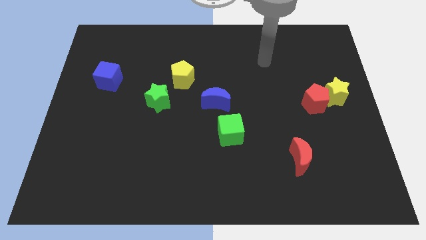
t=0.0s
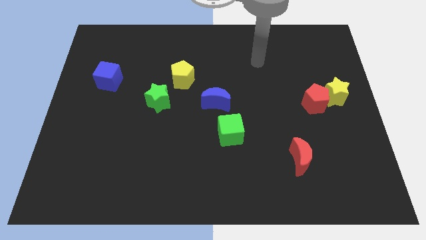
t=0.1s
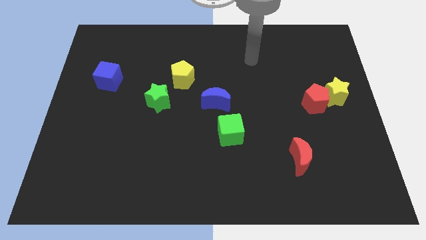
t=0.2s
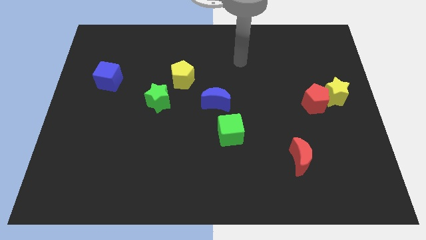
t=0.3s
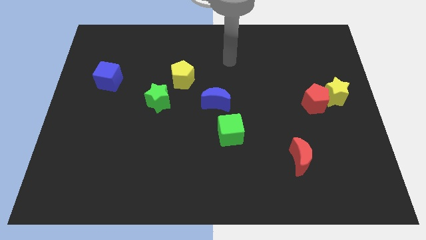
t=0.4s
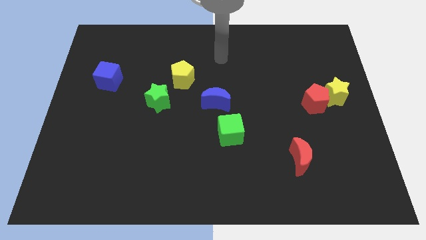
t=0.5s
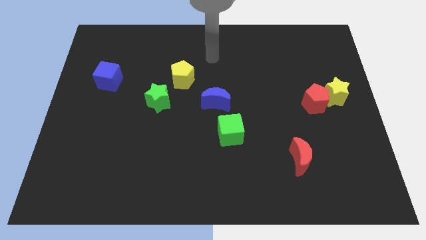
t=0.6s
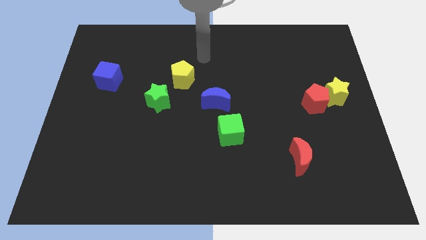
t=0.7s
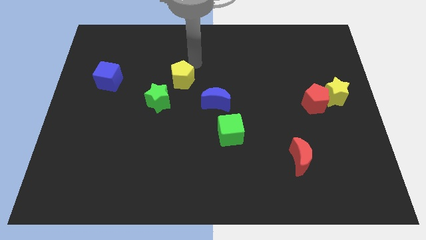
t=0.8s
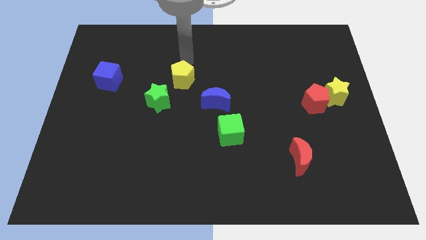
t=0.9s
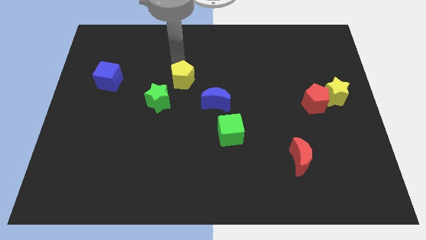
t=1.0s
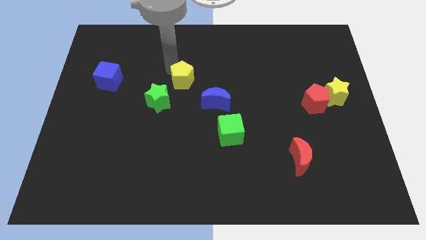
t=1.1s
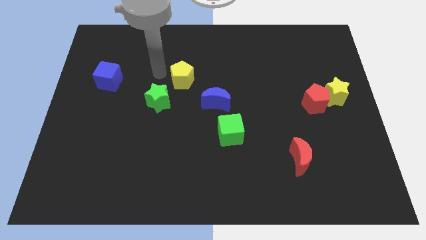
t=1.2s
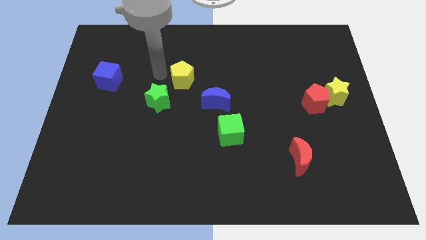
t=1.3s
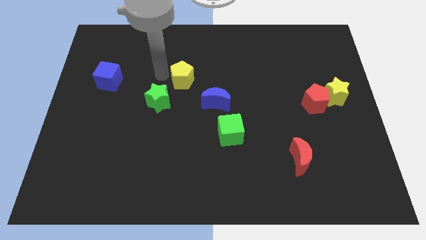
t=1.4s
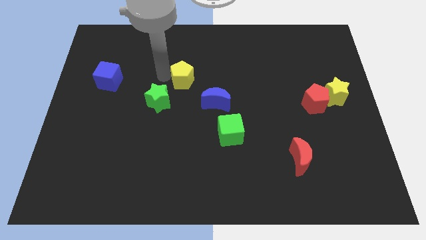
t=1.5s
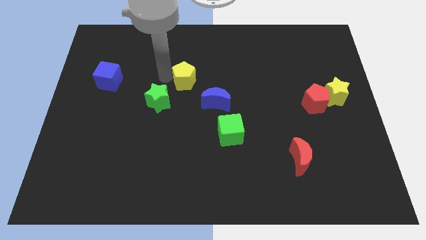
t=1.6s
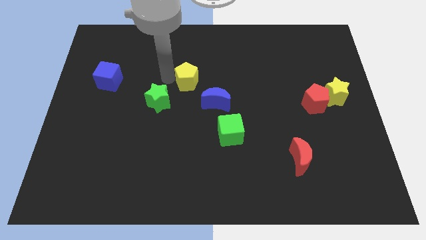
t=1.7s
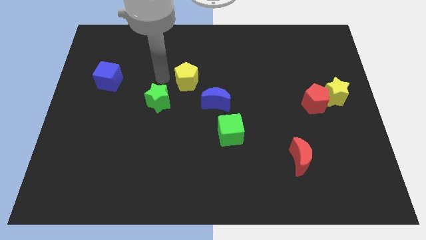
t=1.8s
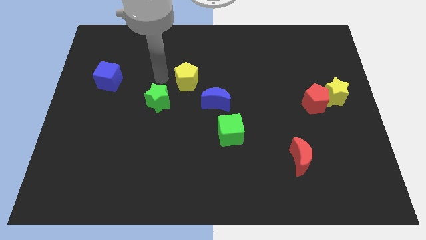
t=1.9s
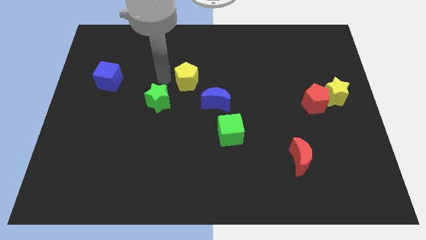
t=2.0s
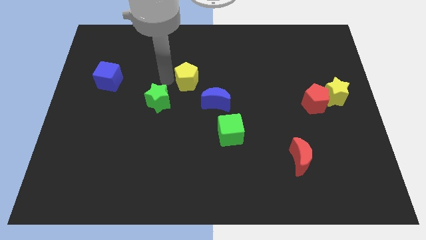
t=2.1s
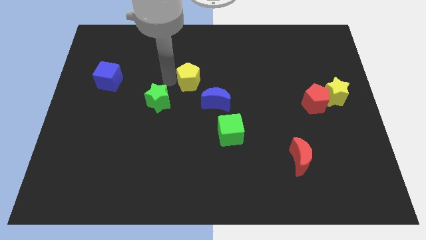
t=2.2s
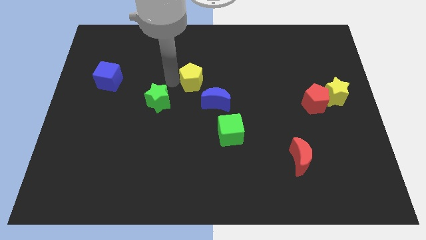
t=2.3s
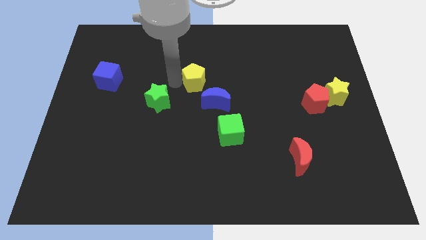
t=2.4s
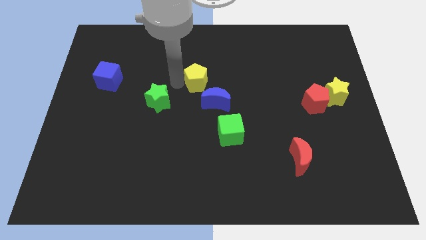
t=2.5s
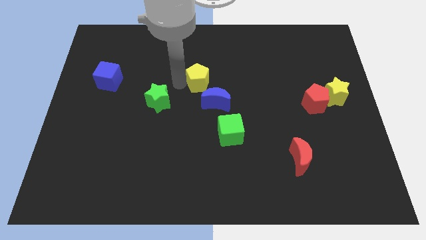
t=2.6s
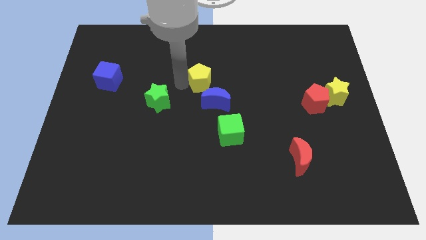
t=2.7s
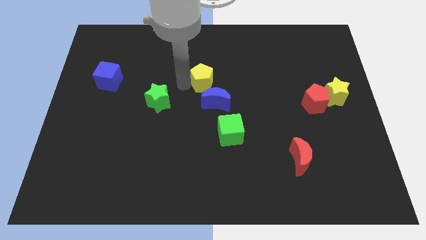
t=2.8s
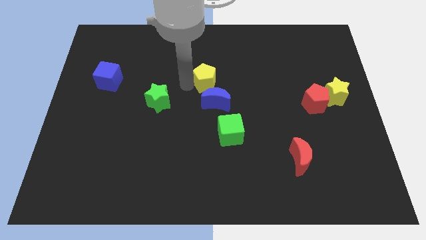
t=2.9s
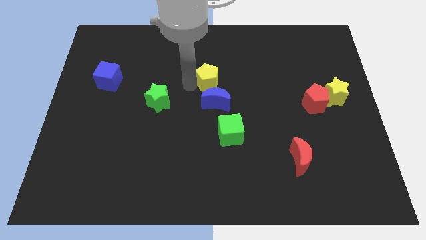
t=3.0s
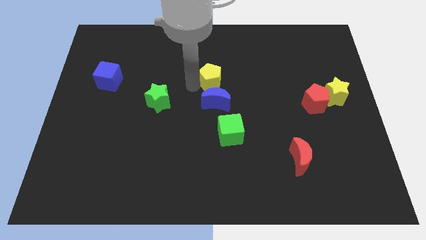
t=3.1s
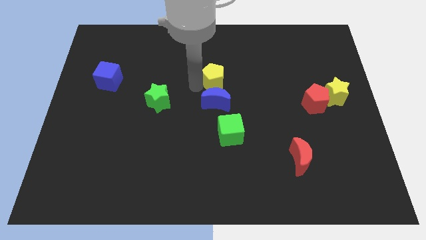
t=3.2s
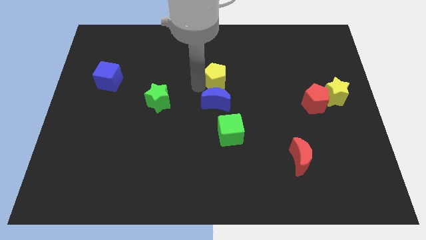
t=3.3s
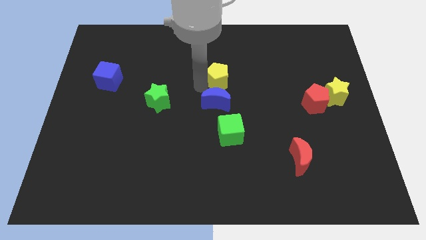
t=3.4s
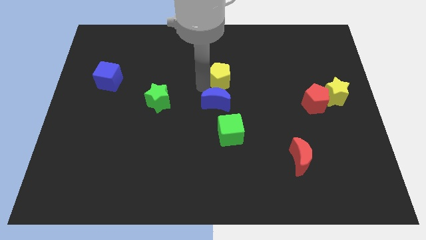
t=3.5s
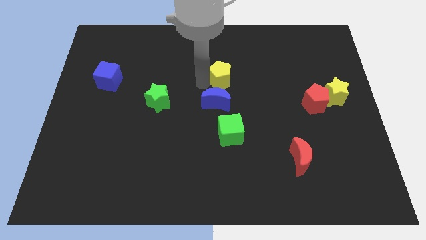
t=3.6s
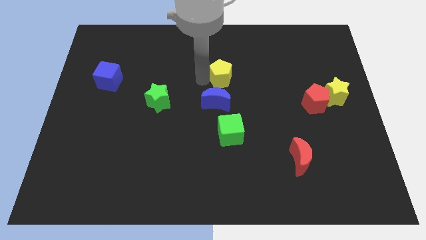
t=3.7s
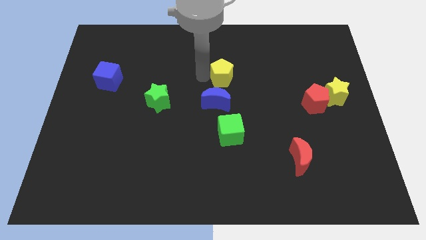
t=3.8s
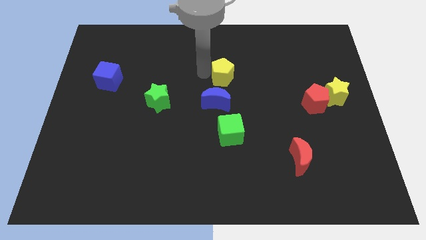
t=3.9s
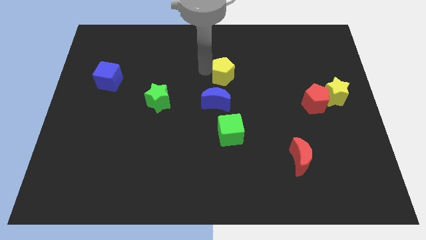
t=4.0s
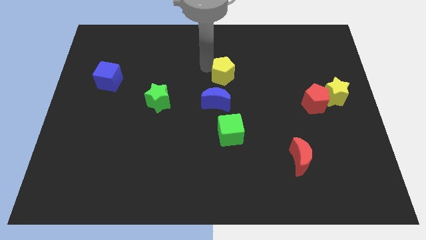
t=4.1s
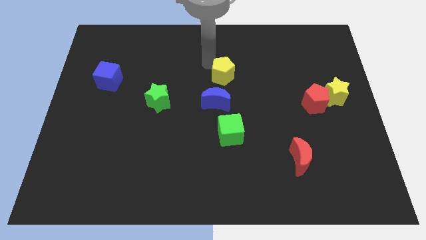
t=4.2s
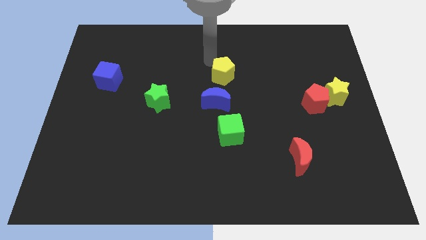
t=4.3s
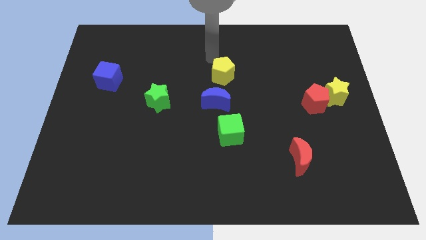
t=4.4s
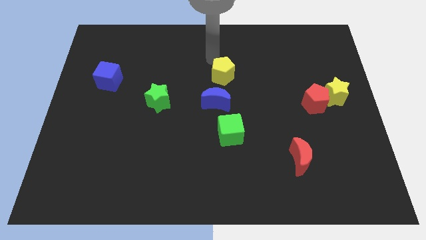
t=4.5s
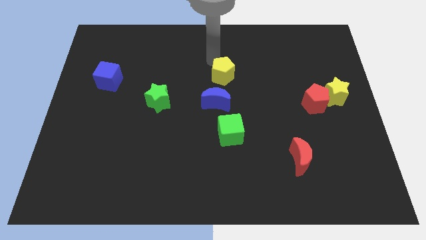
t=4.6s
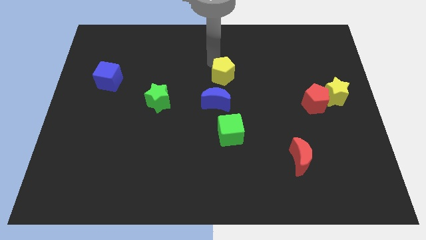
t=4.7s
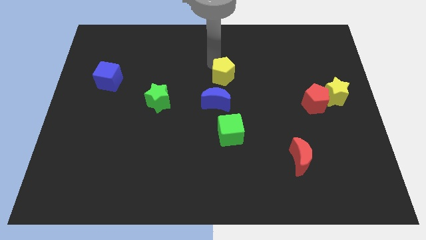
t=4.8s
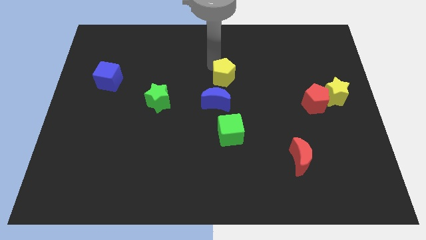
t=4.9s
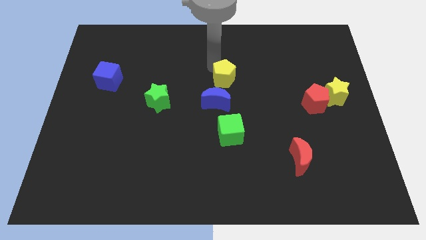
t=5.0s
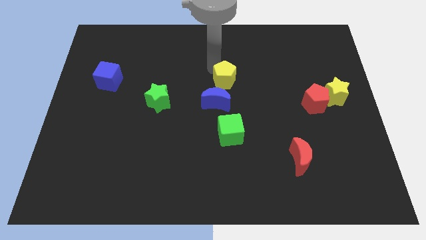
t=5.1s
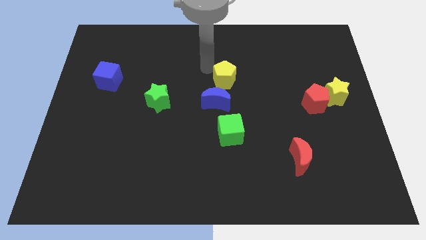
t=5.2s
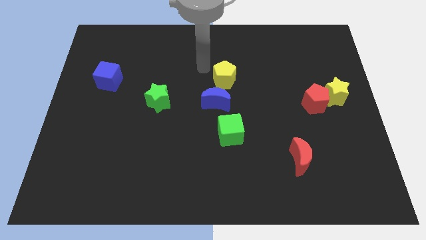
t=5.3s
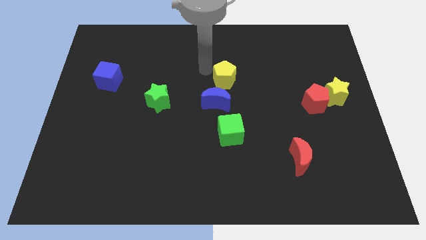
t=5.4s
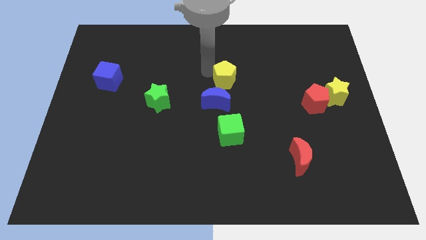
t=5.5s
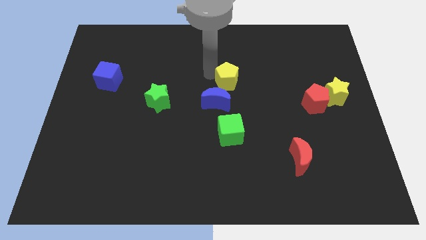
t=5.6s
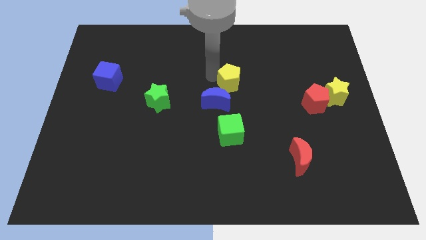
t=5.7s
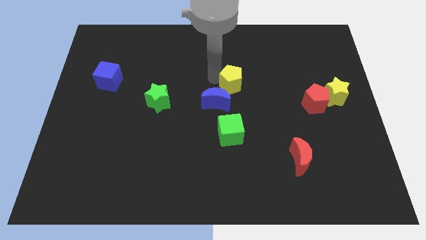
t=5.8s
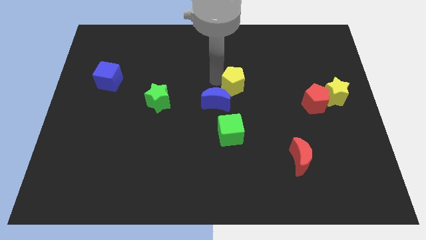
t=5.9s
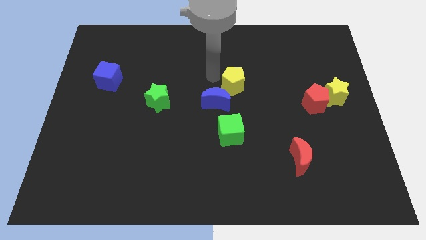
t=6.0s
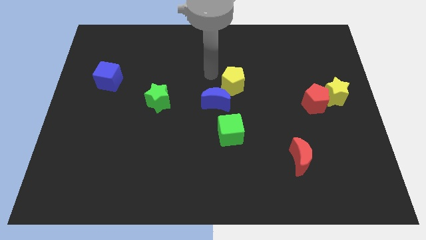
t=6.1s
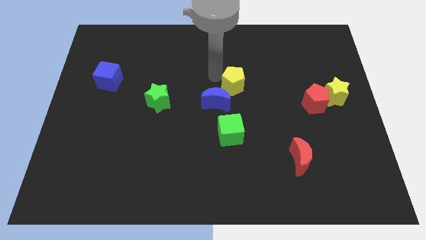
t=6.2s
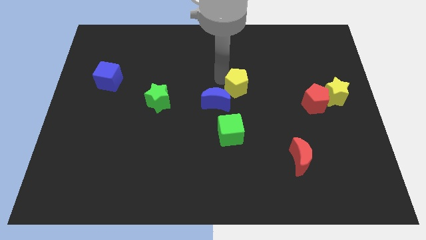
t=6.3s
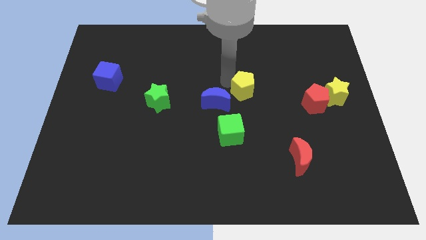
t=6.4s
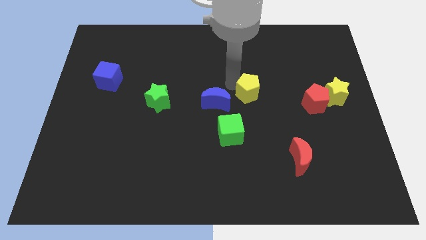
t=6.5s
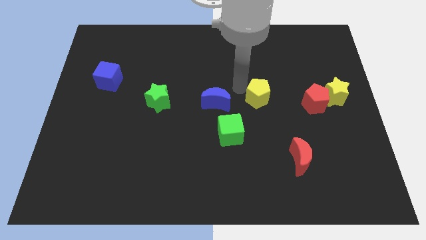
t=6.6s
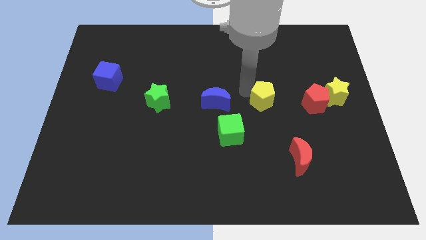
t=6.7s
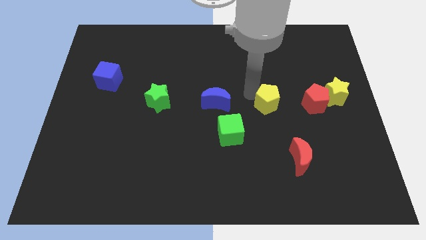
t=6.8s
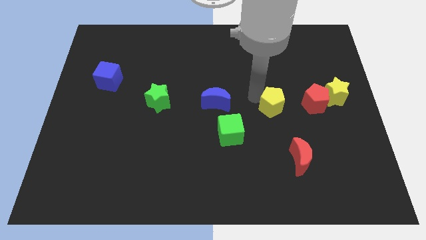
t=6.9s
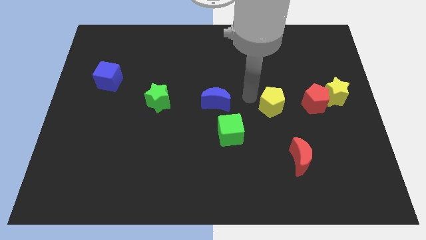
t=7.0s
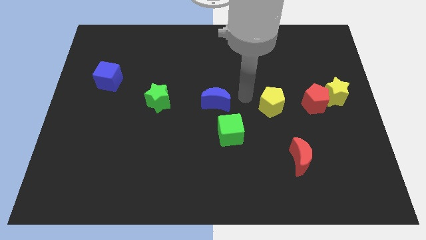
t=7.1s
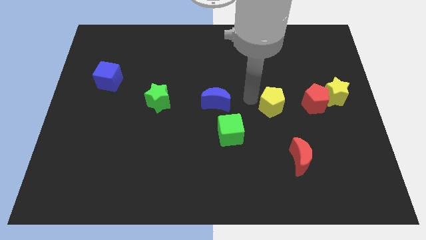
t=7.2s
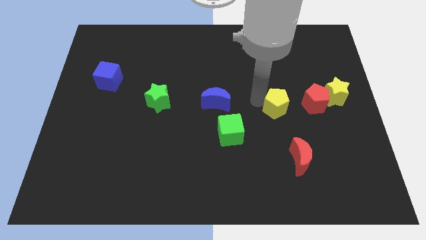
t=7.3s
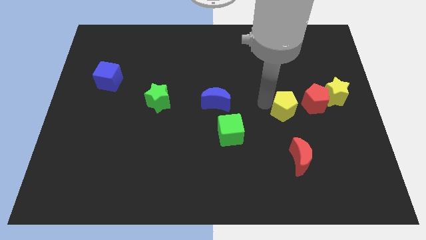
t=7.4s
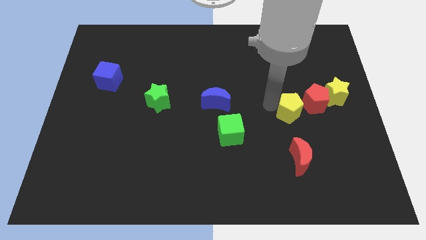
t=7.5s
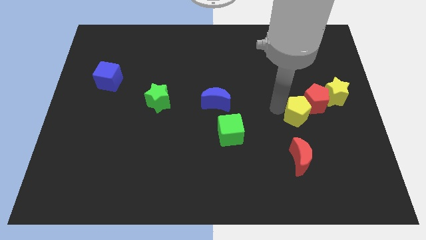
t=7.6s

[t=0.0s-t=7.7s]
slide the yellow pentagon to the bottom left of the yellow star
